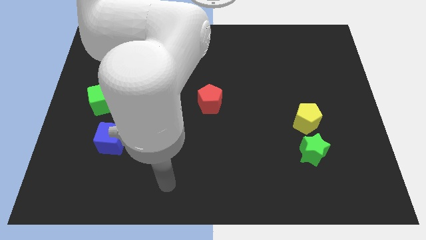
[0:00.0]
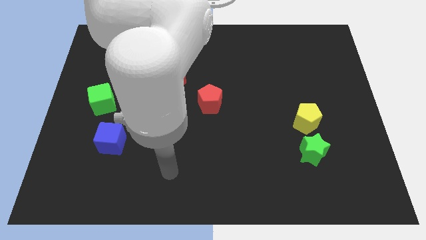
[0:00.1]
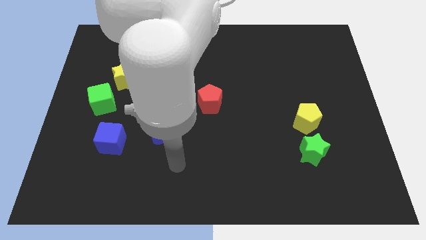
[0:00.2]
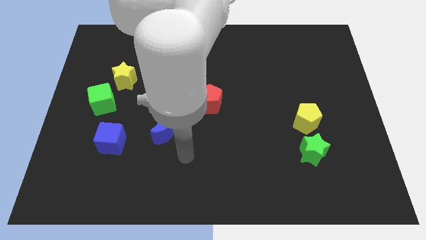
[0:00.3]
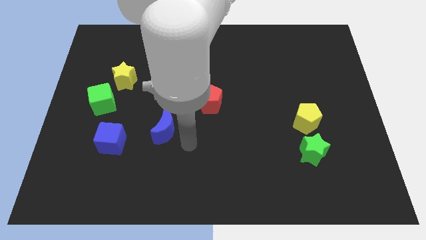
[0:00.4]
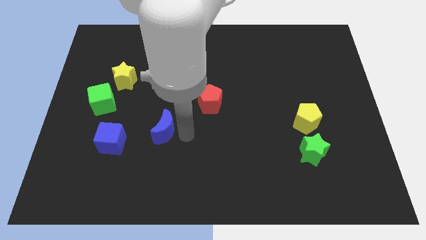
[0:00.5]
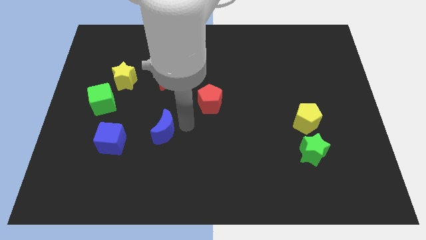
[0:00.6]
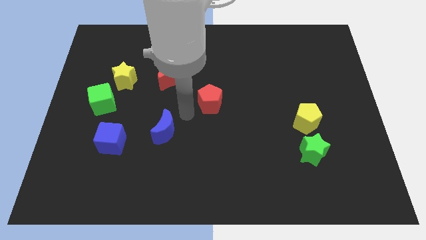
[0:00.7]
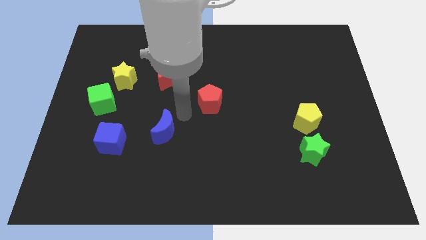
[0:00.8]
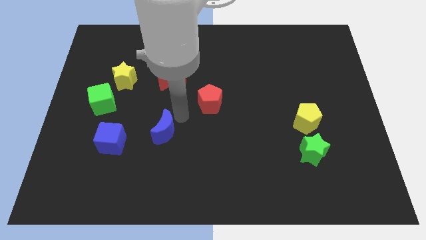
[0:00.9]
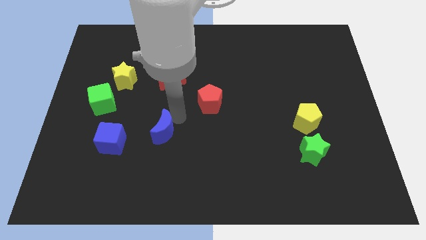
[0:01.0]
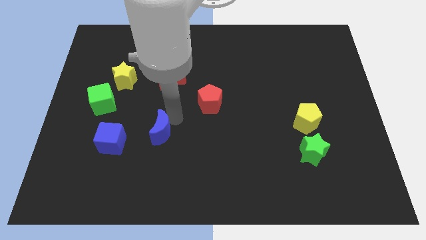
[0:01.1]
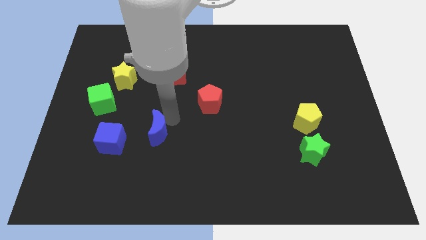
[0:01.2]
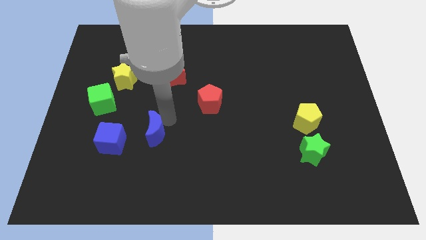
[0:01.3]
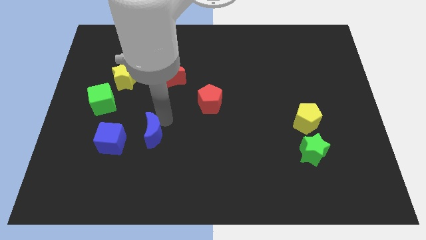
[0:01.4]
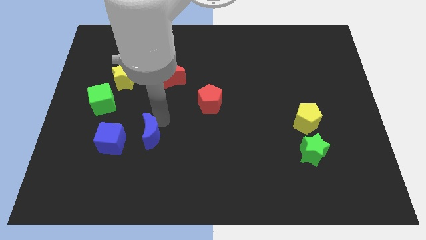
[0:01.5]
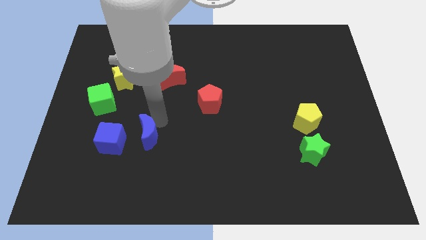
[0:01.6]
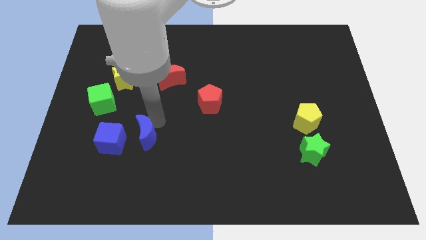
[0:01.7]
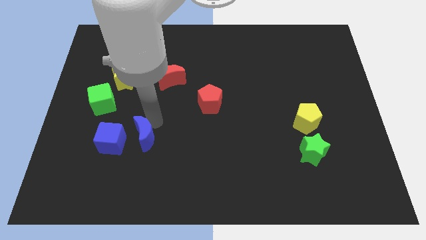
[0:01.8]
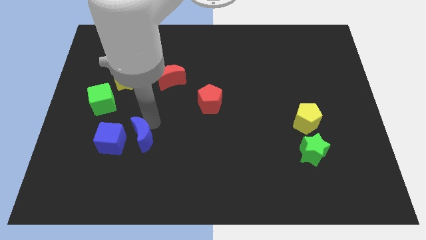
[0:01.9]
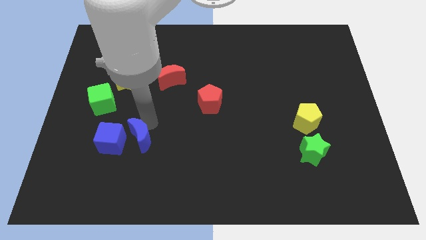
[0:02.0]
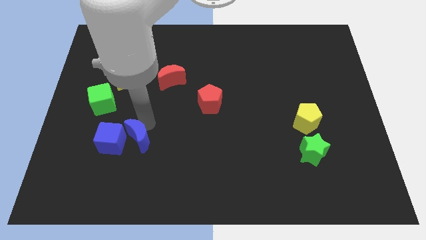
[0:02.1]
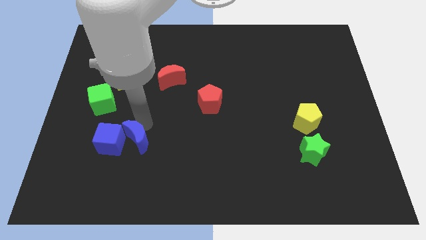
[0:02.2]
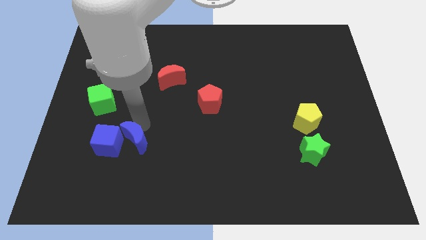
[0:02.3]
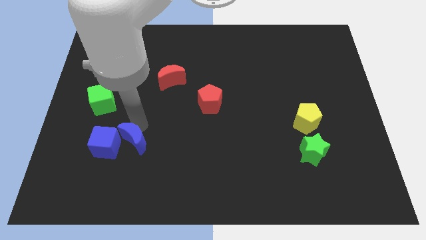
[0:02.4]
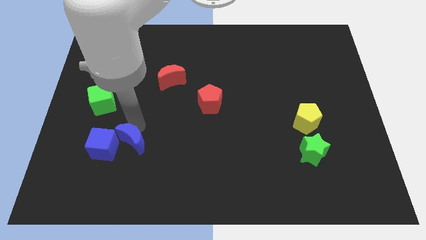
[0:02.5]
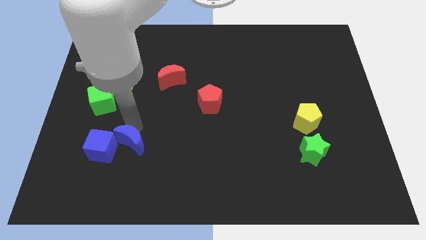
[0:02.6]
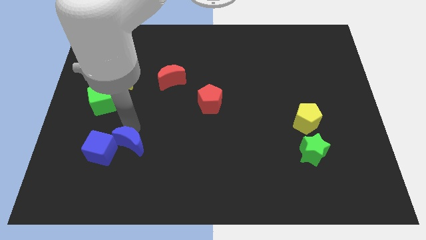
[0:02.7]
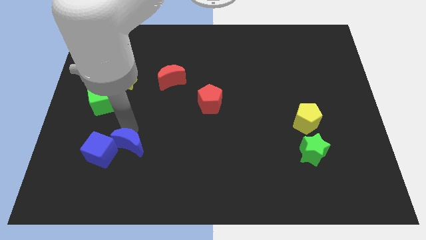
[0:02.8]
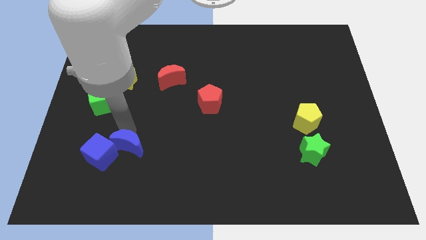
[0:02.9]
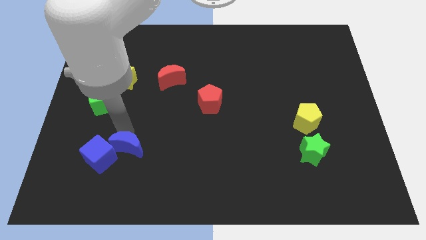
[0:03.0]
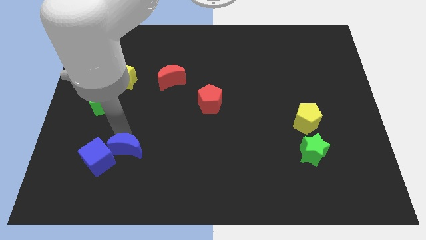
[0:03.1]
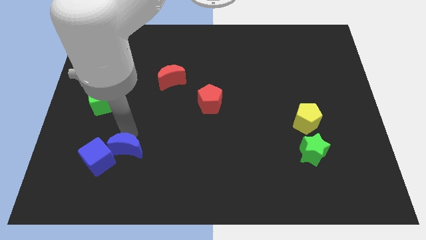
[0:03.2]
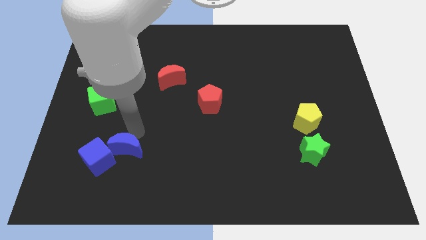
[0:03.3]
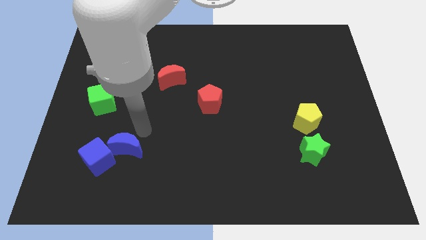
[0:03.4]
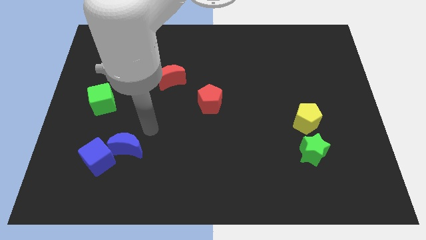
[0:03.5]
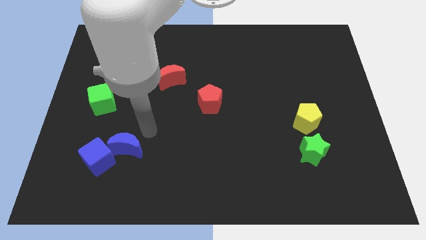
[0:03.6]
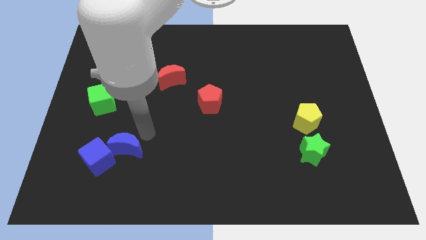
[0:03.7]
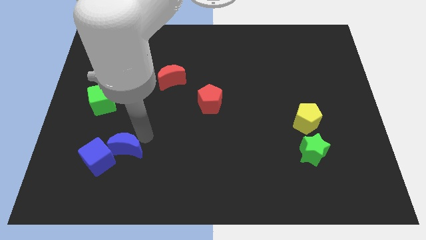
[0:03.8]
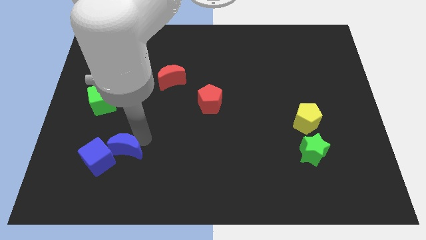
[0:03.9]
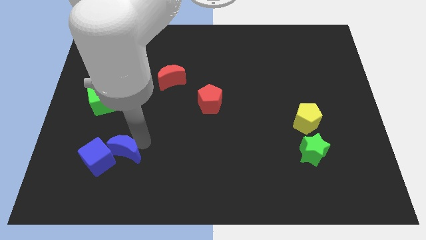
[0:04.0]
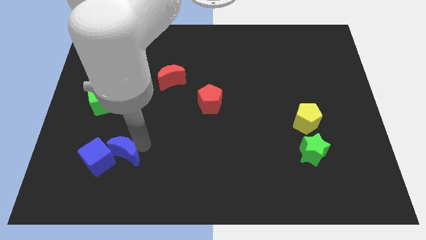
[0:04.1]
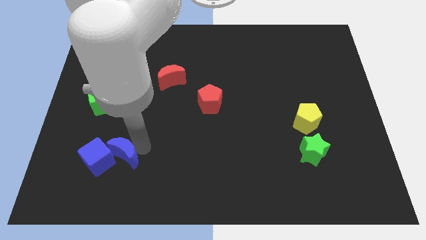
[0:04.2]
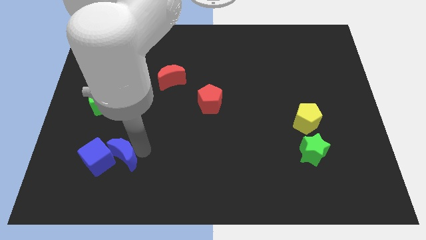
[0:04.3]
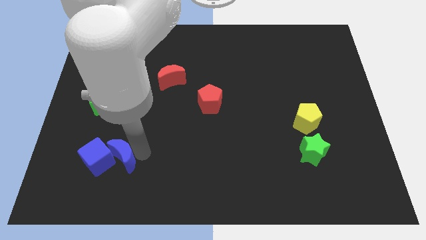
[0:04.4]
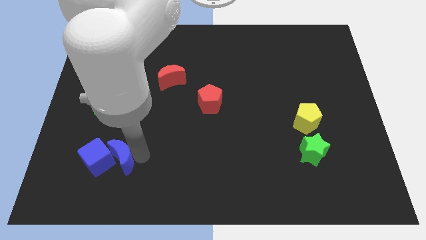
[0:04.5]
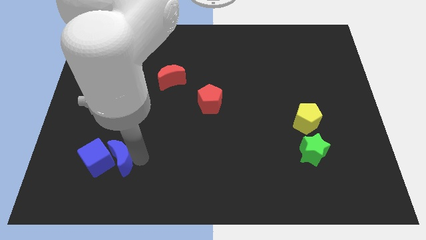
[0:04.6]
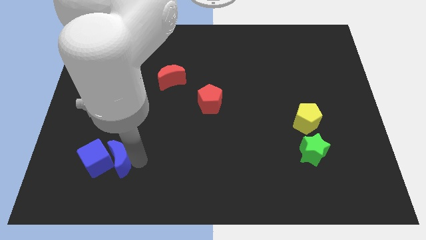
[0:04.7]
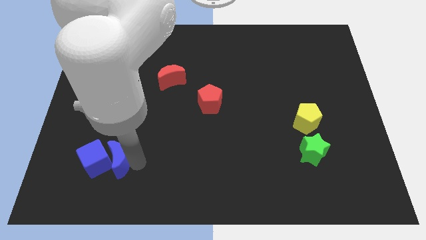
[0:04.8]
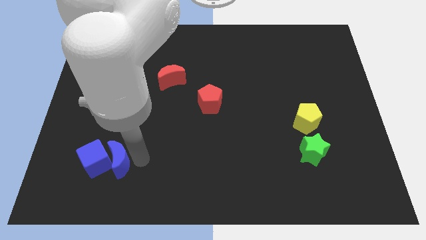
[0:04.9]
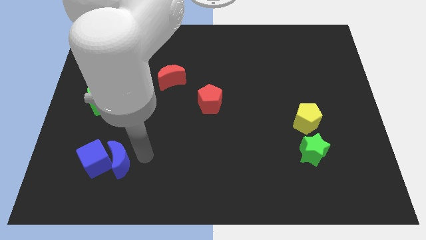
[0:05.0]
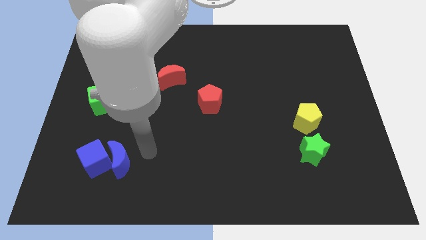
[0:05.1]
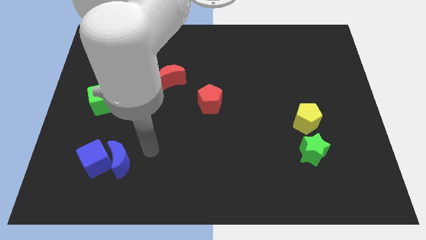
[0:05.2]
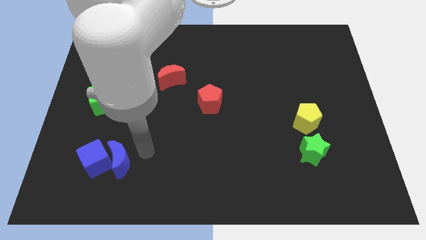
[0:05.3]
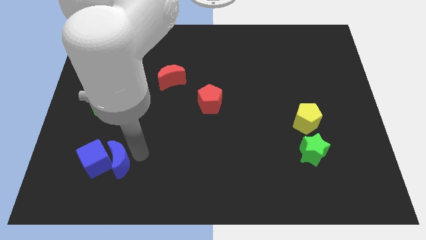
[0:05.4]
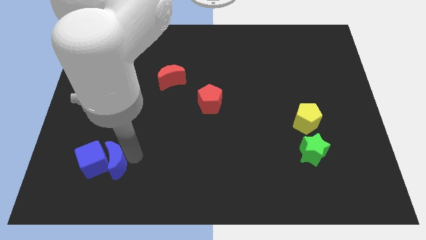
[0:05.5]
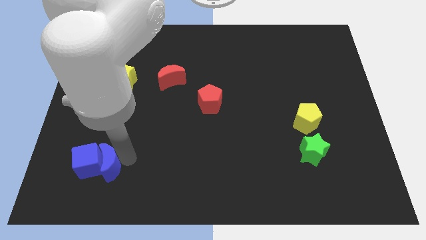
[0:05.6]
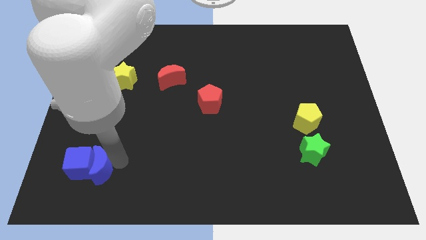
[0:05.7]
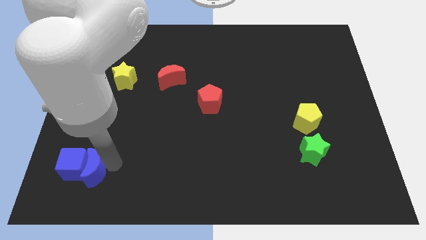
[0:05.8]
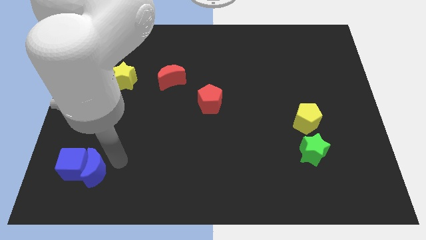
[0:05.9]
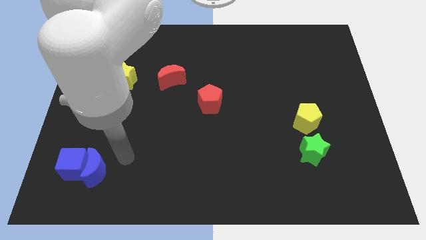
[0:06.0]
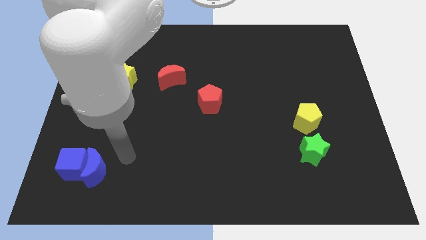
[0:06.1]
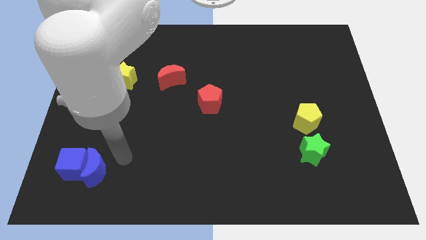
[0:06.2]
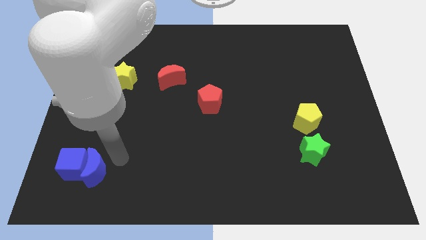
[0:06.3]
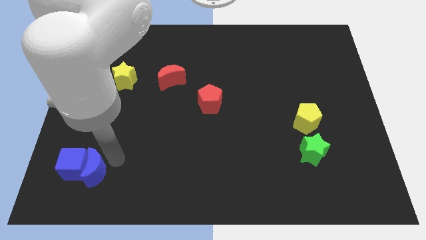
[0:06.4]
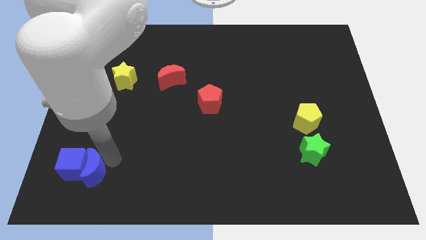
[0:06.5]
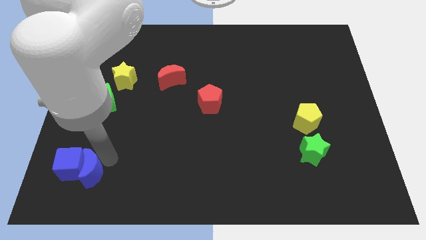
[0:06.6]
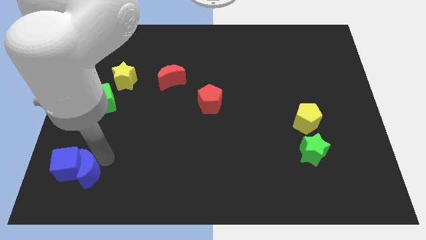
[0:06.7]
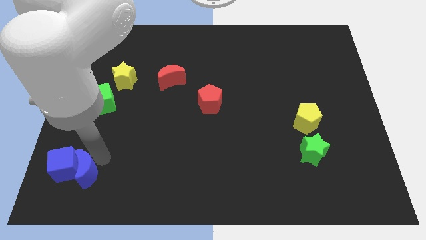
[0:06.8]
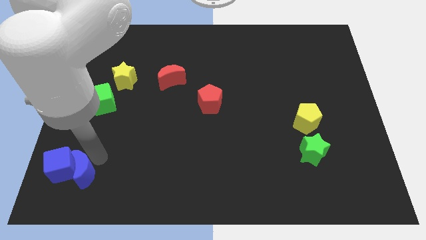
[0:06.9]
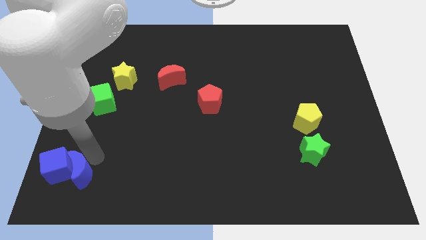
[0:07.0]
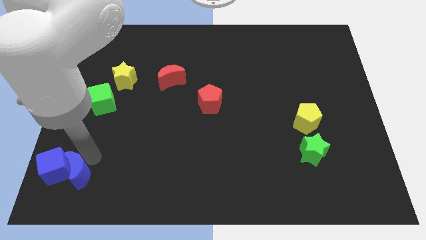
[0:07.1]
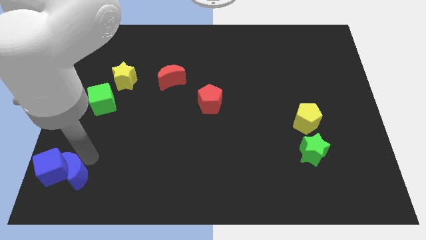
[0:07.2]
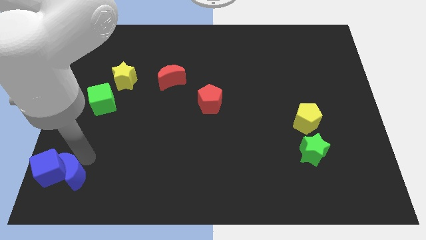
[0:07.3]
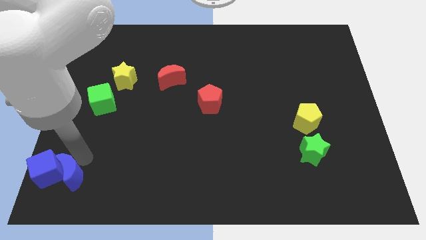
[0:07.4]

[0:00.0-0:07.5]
slide the blue moon to the lower left corner
